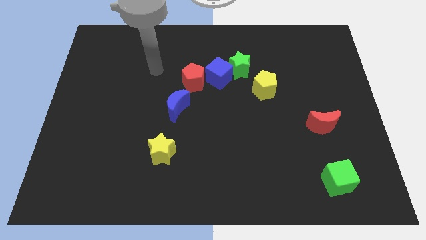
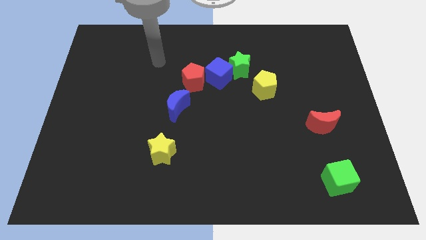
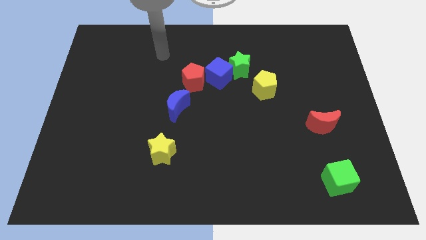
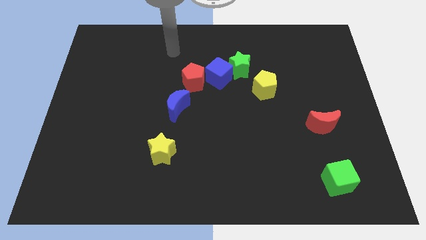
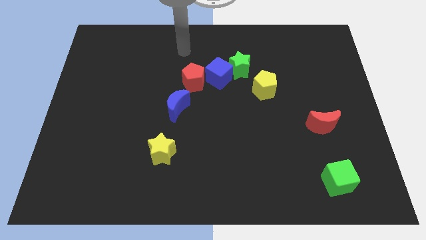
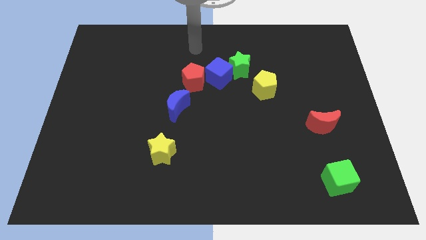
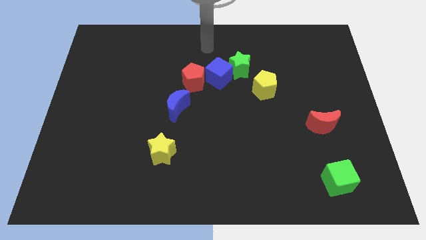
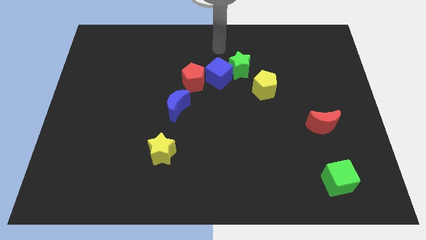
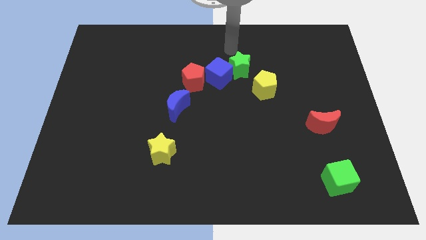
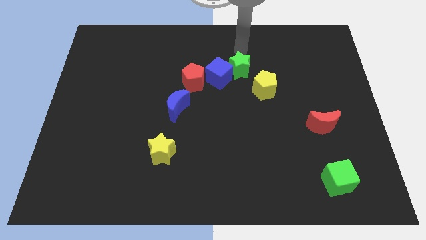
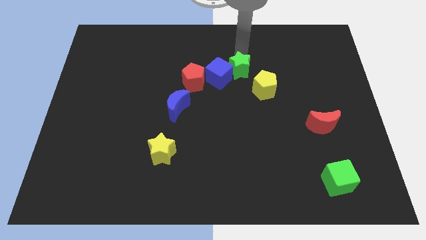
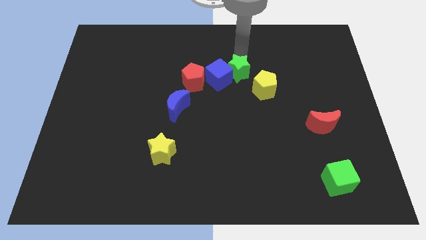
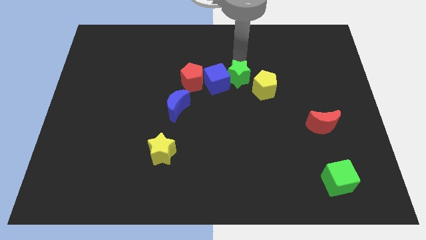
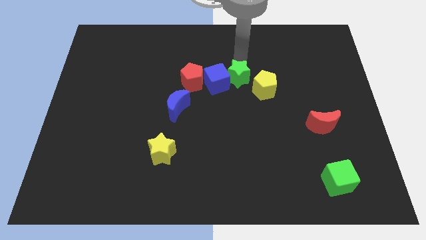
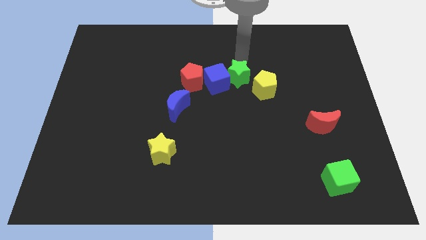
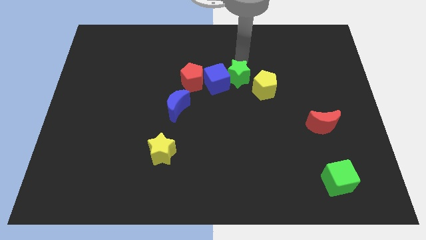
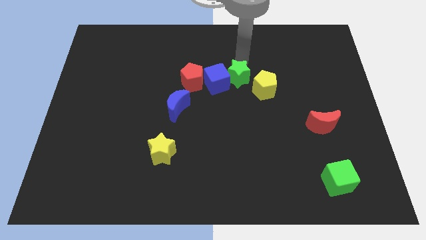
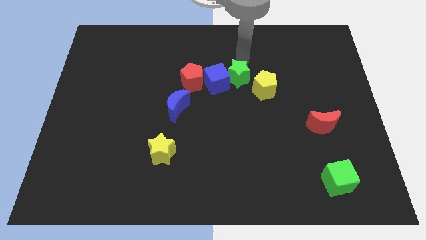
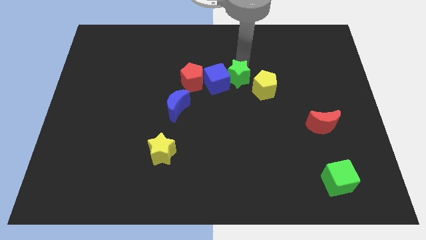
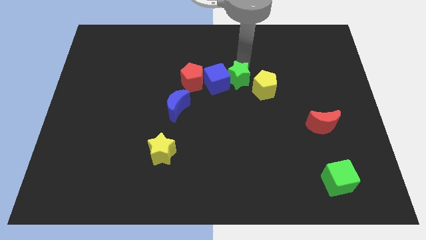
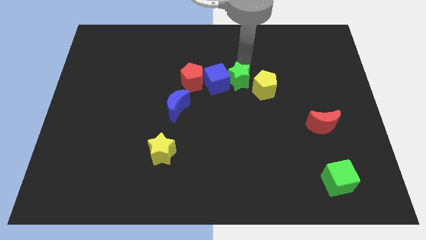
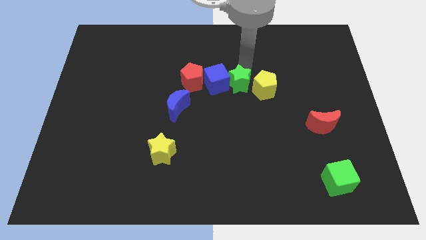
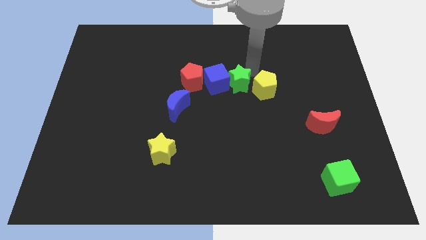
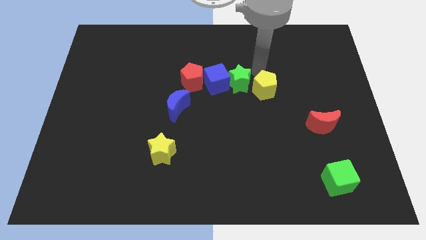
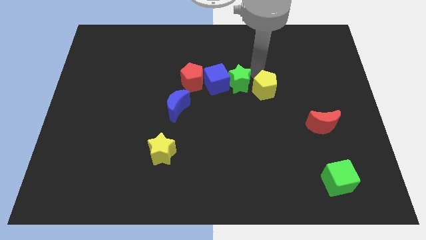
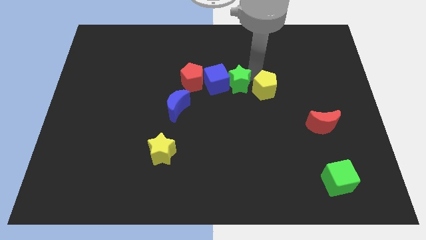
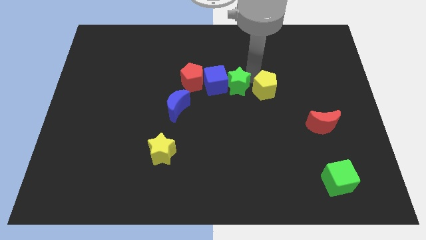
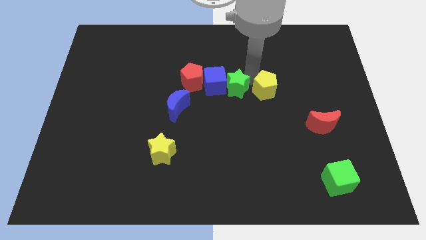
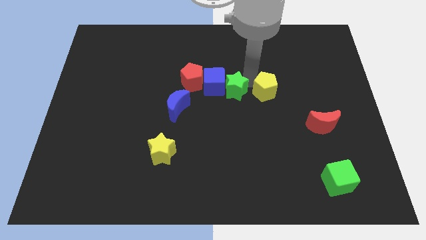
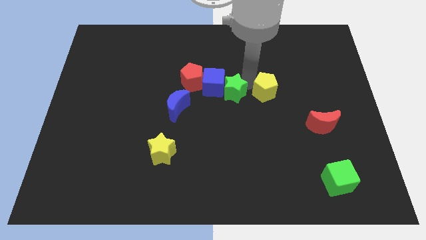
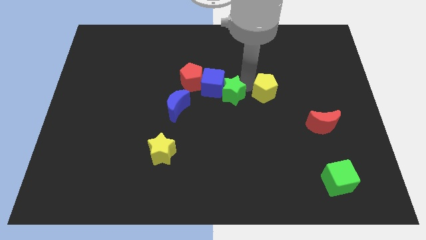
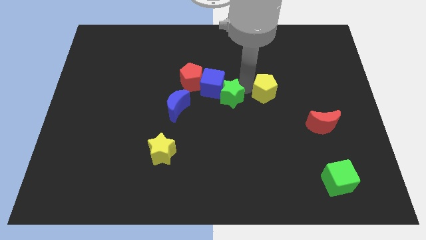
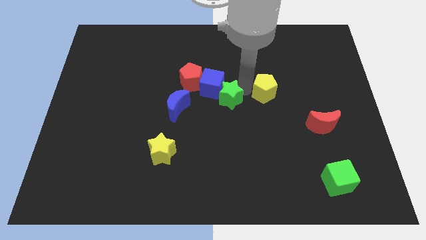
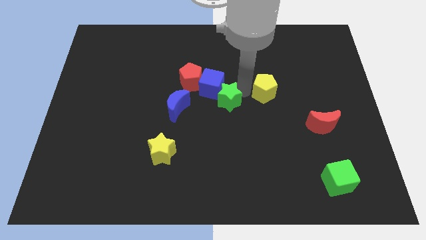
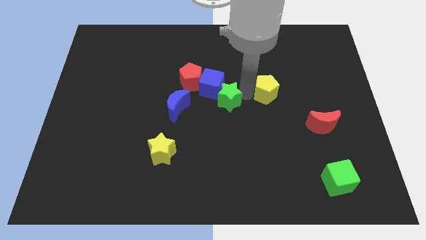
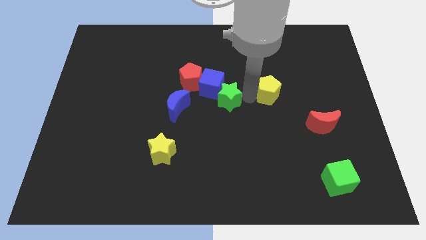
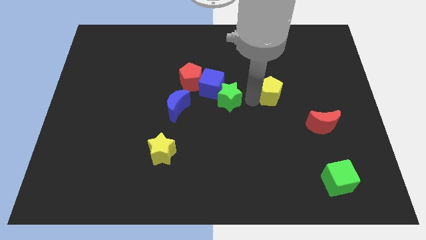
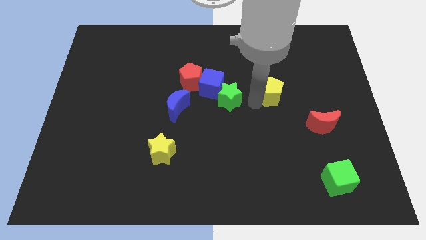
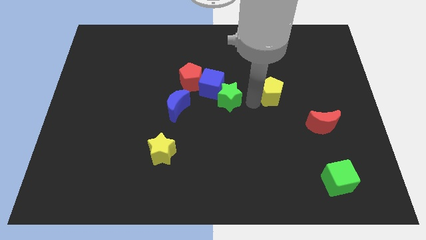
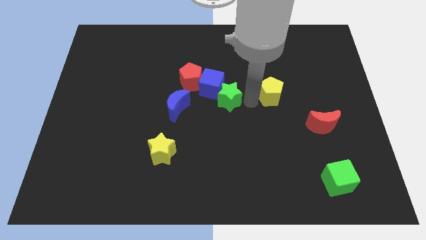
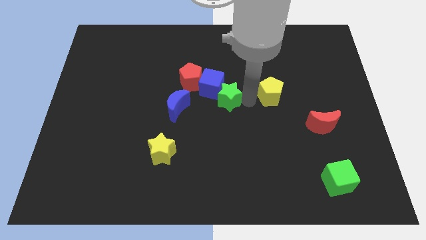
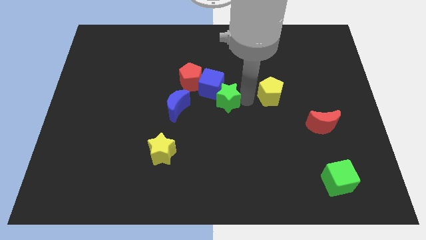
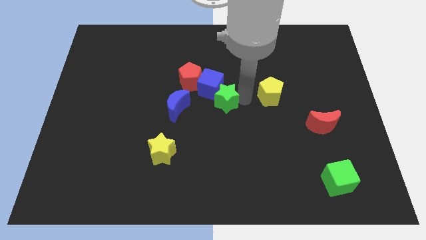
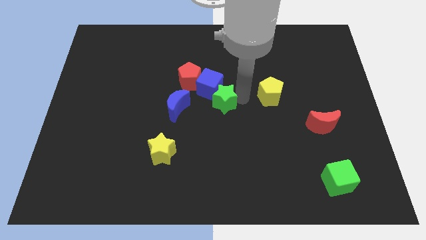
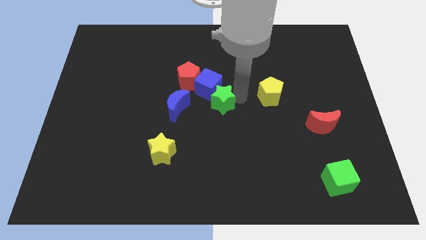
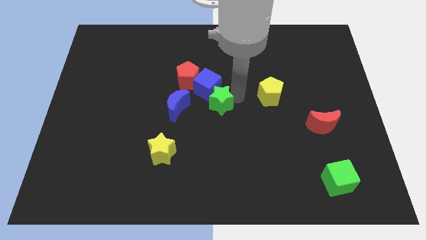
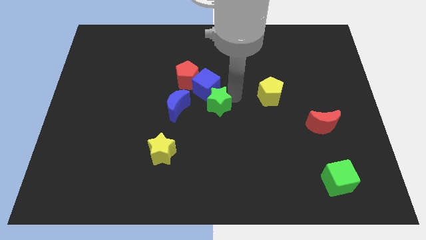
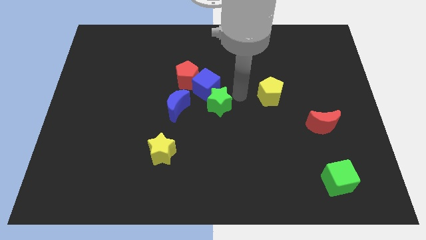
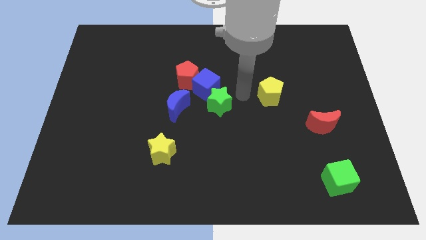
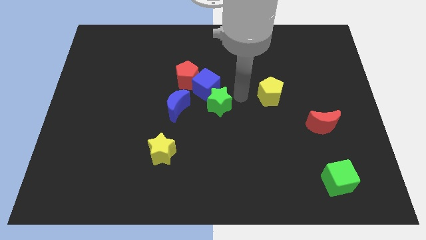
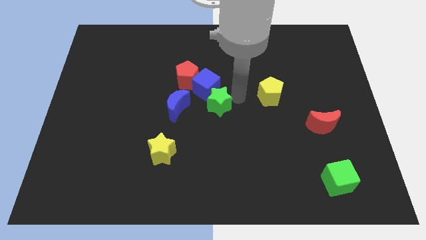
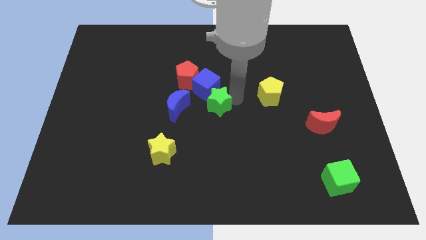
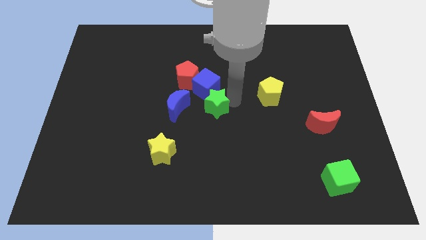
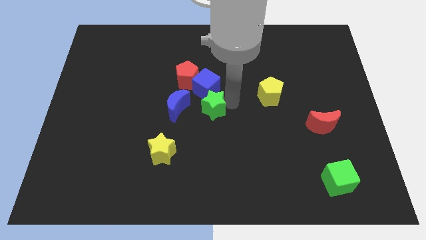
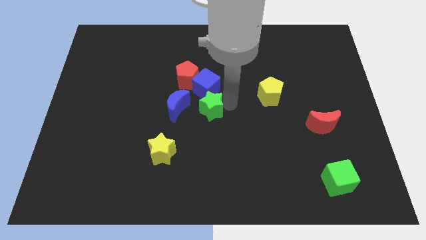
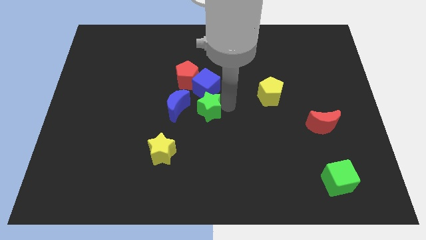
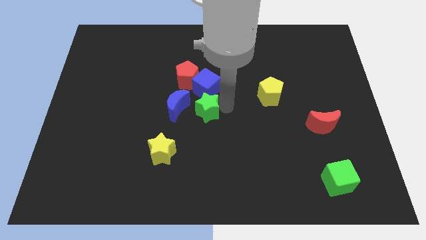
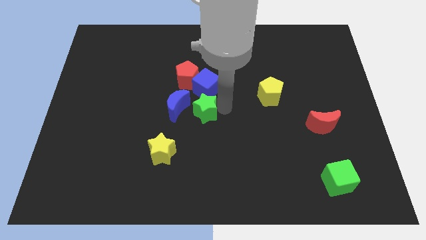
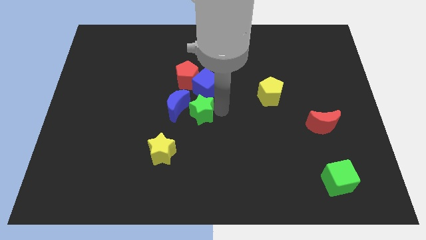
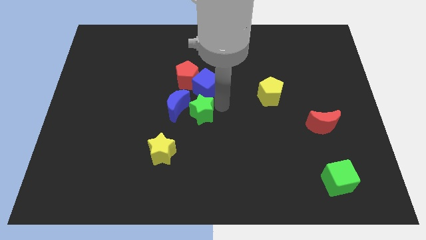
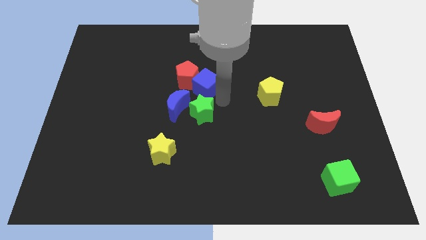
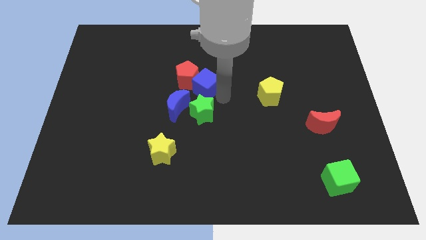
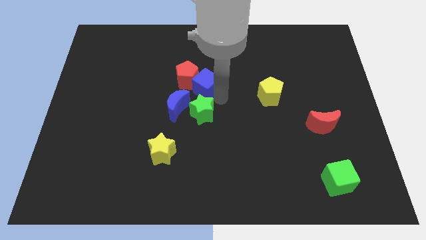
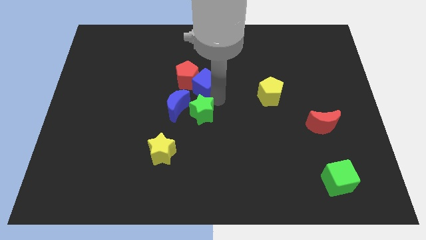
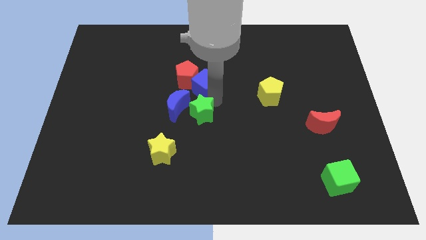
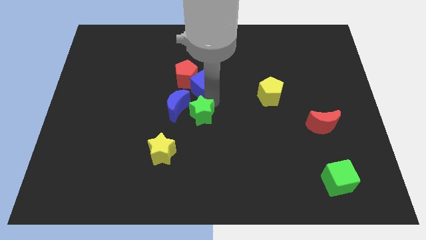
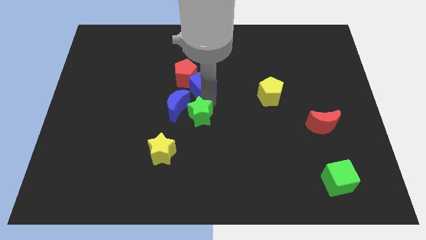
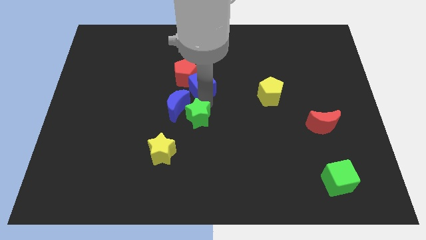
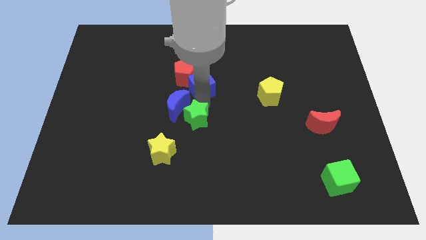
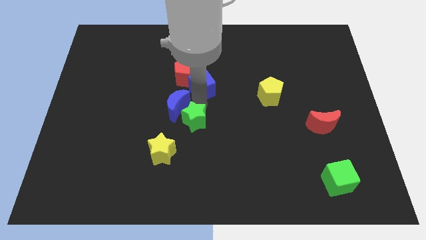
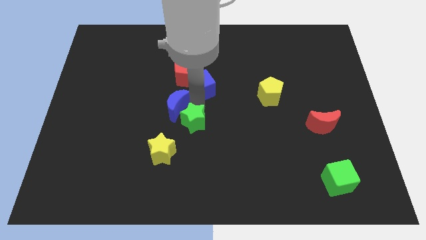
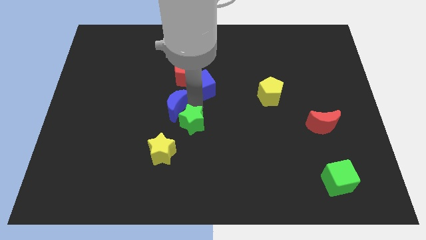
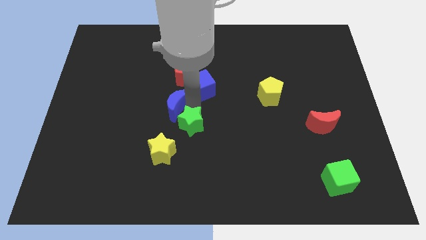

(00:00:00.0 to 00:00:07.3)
push the green star diagonally down and left

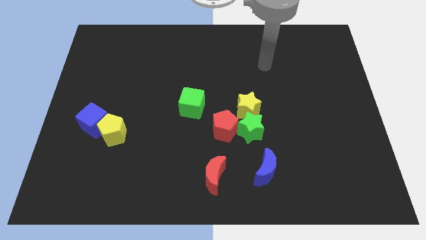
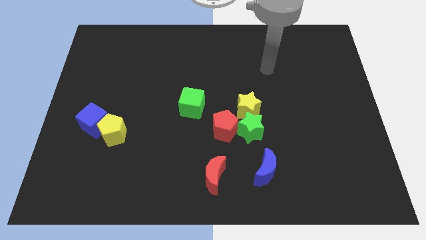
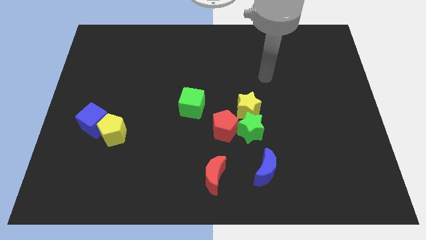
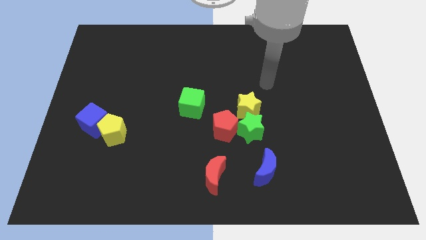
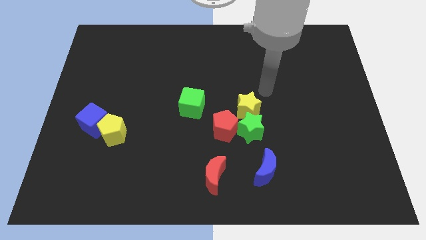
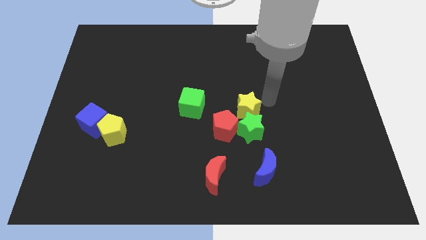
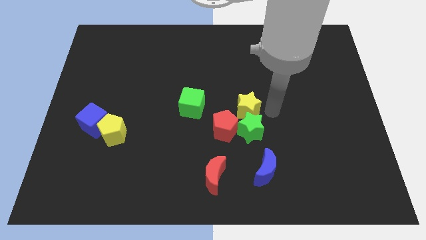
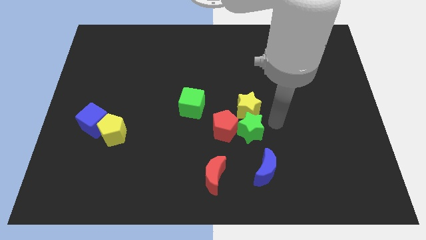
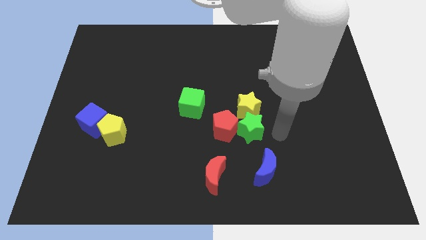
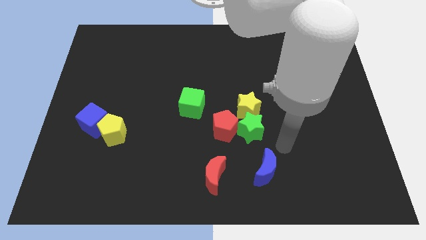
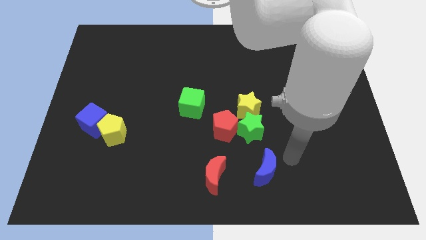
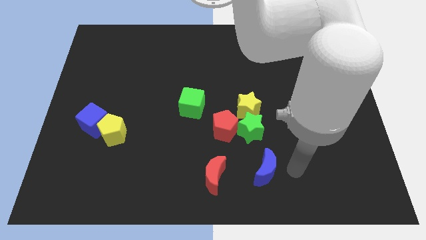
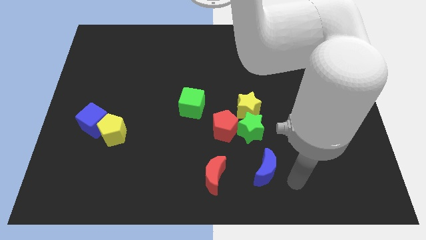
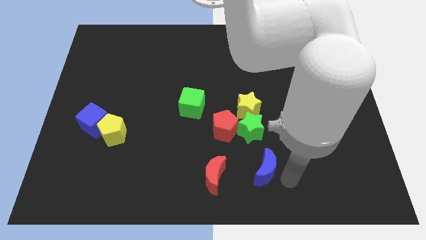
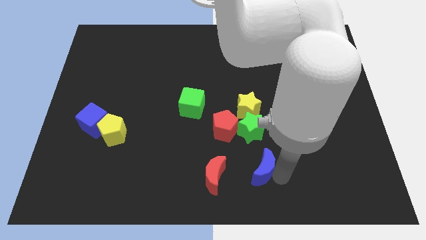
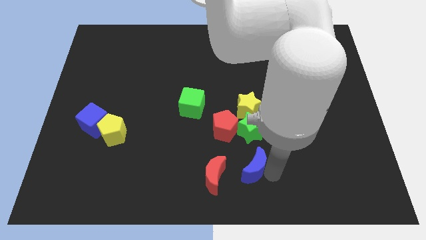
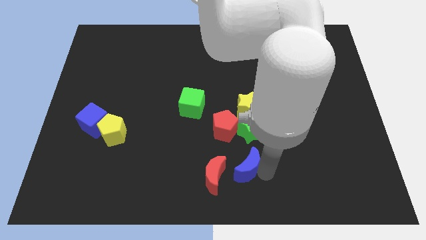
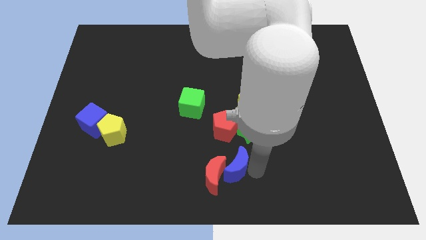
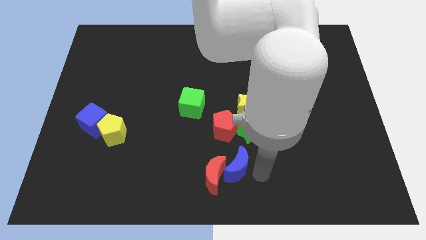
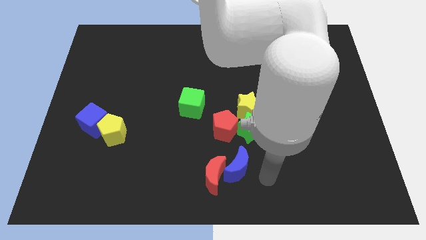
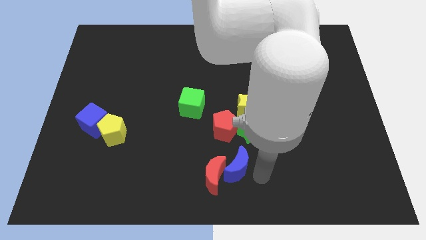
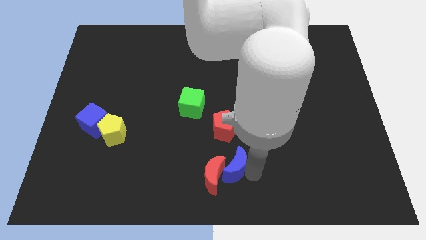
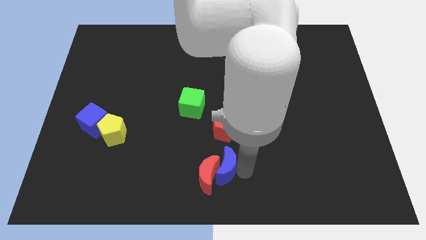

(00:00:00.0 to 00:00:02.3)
push the blue moon somewhat left
